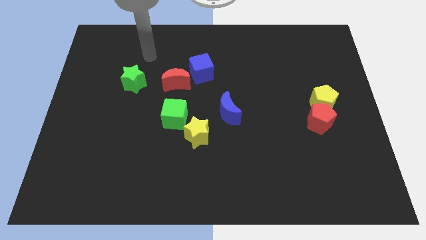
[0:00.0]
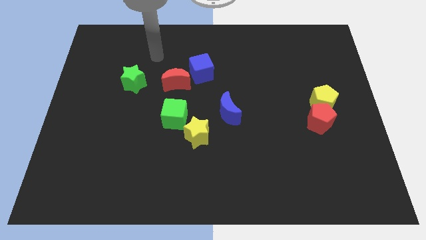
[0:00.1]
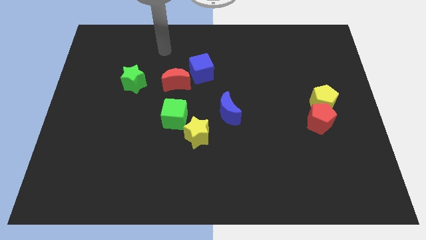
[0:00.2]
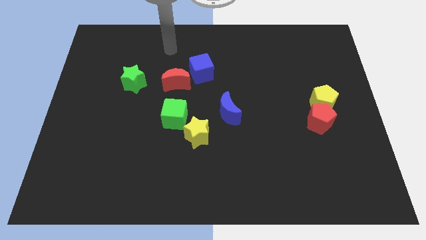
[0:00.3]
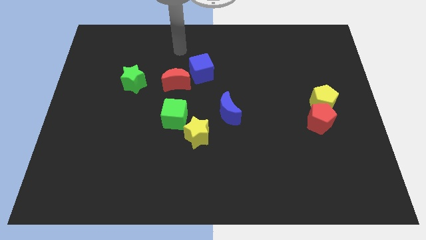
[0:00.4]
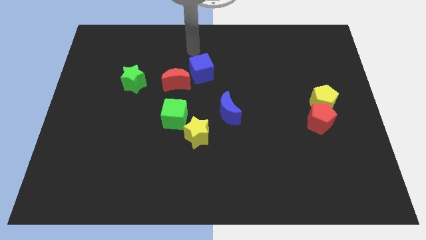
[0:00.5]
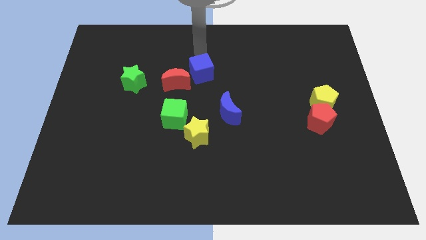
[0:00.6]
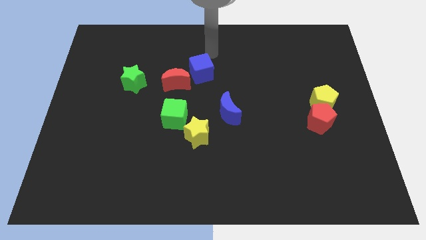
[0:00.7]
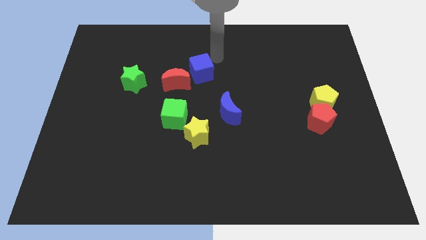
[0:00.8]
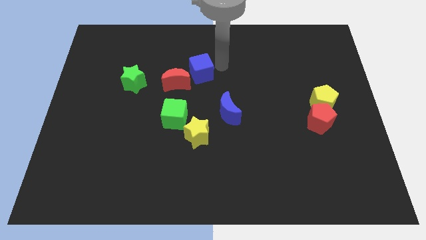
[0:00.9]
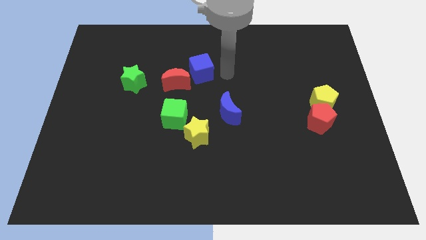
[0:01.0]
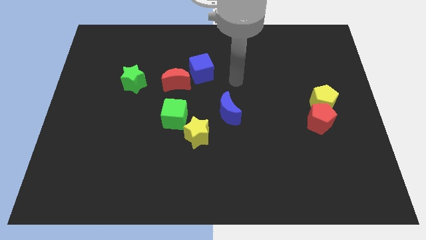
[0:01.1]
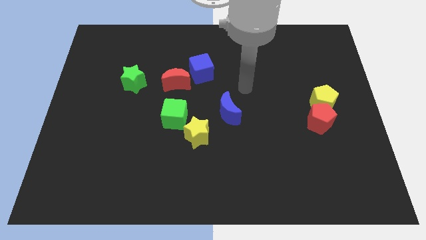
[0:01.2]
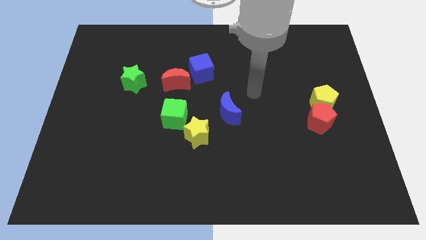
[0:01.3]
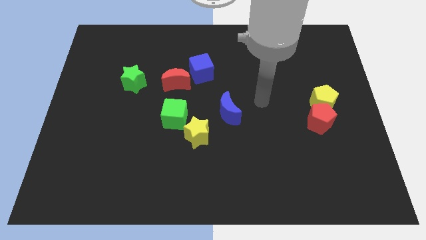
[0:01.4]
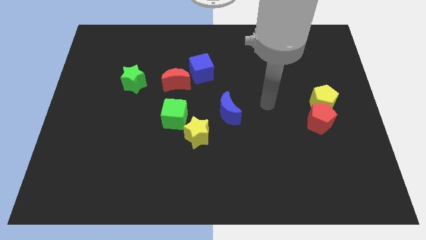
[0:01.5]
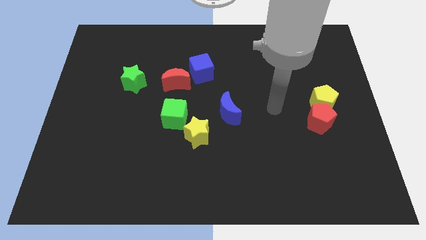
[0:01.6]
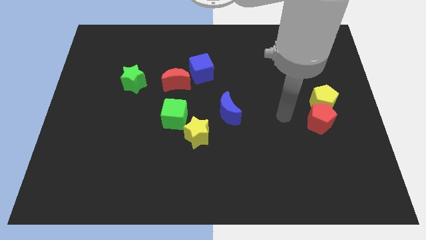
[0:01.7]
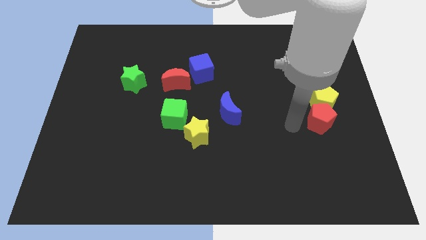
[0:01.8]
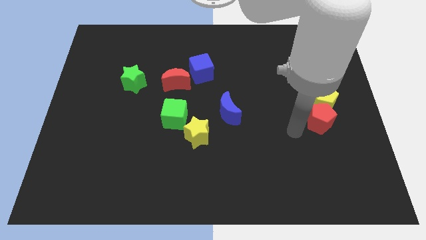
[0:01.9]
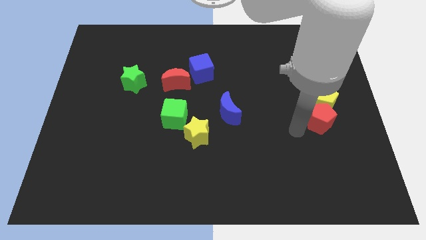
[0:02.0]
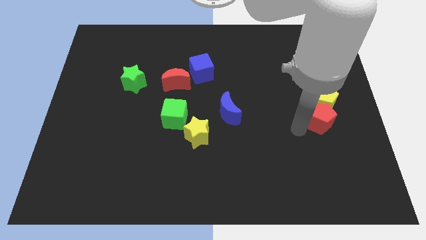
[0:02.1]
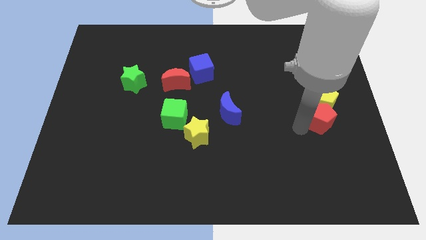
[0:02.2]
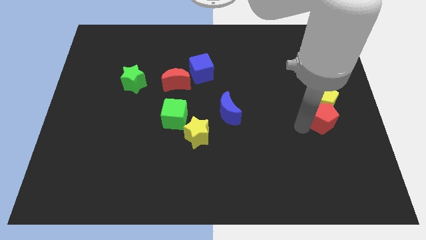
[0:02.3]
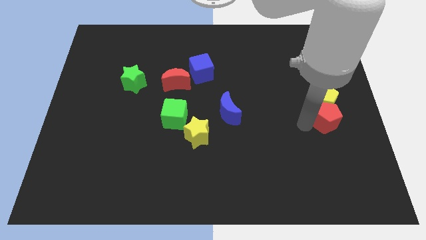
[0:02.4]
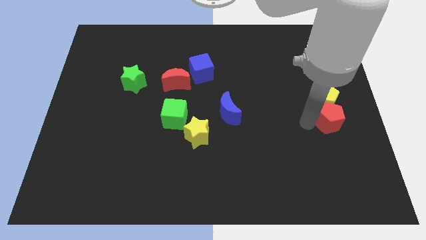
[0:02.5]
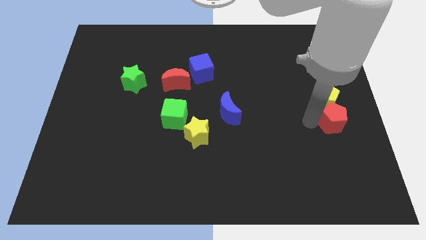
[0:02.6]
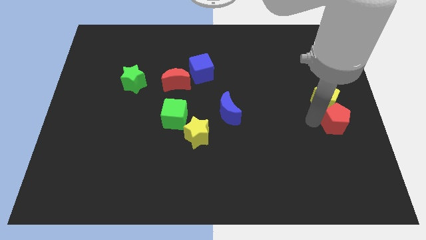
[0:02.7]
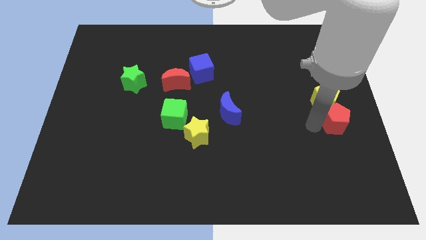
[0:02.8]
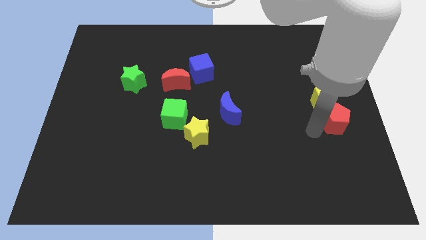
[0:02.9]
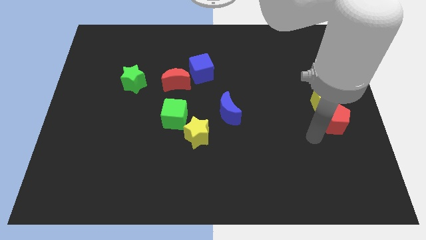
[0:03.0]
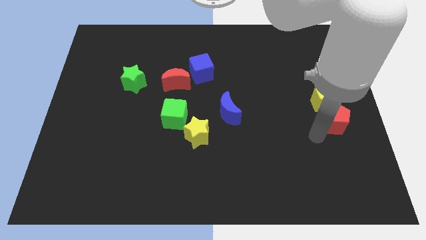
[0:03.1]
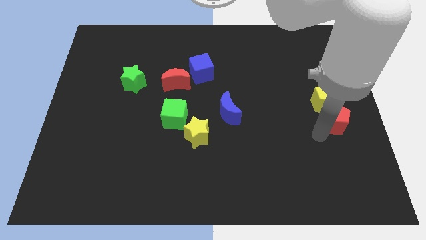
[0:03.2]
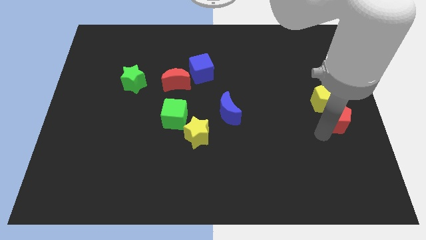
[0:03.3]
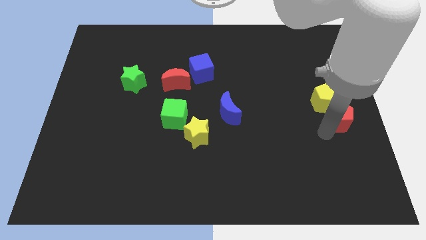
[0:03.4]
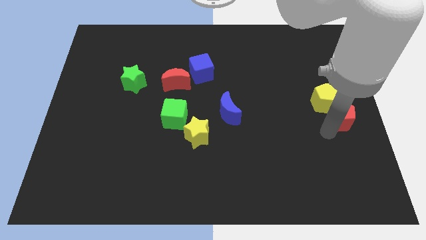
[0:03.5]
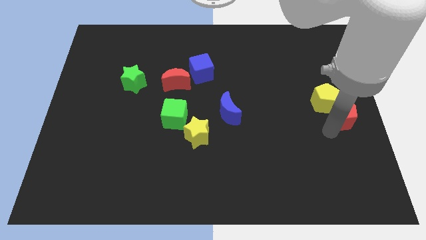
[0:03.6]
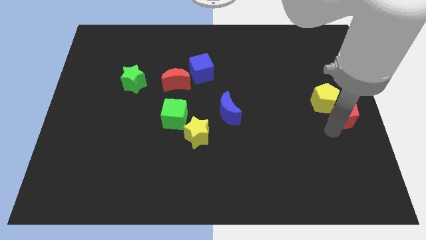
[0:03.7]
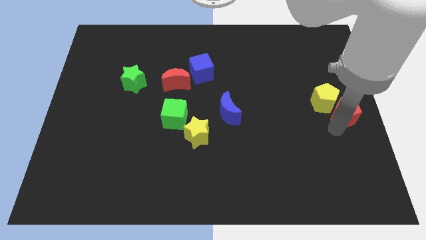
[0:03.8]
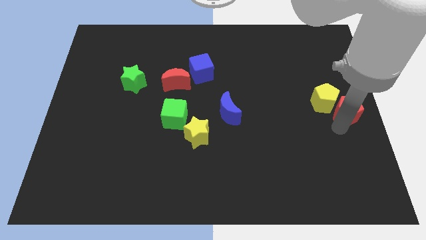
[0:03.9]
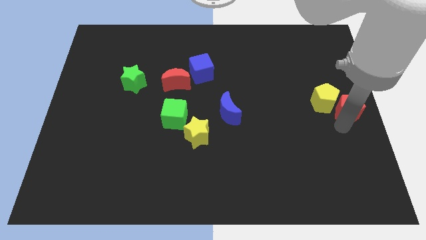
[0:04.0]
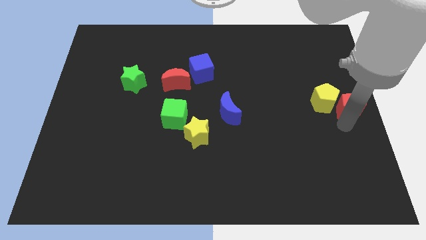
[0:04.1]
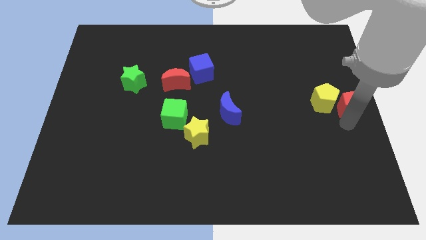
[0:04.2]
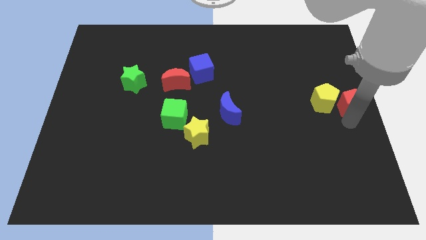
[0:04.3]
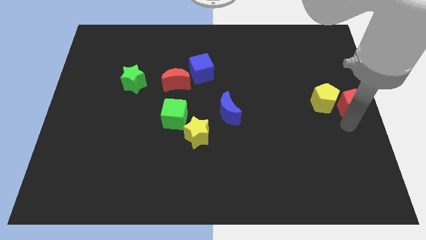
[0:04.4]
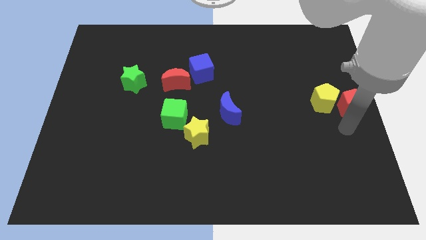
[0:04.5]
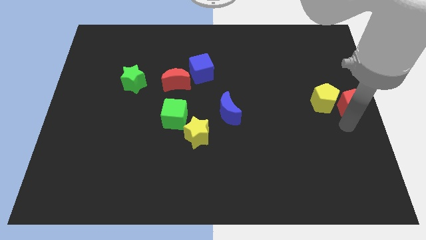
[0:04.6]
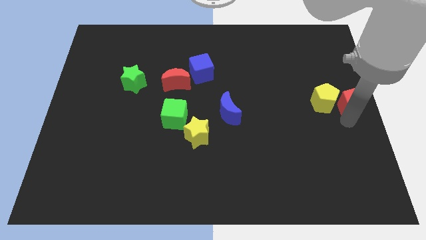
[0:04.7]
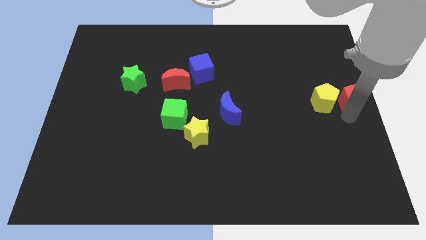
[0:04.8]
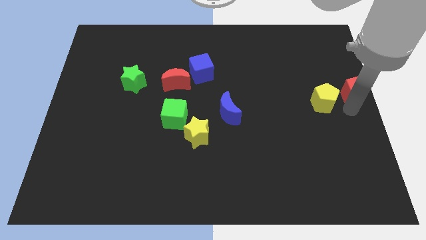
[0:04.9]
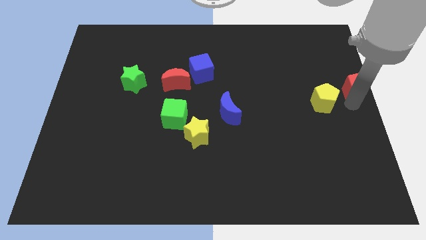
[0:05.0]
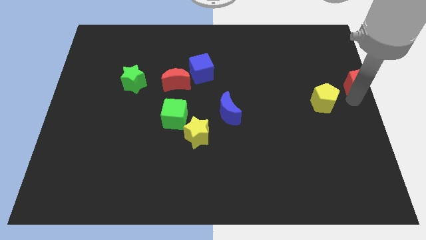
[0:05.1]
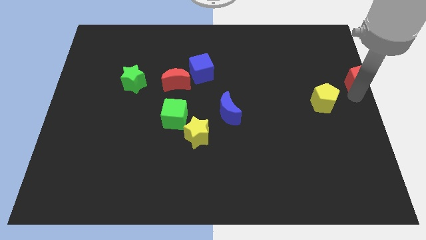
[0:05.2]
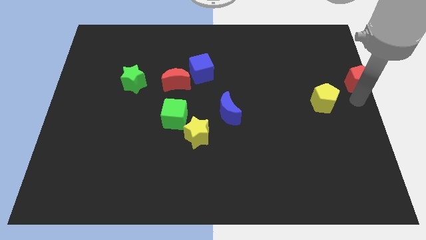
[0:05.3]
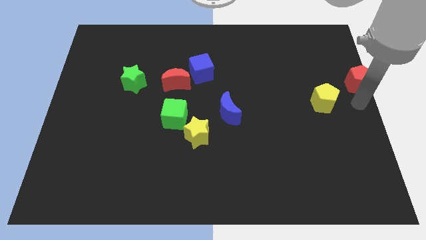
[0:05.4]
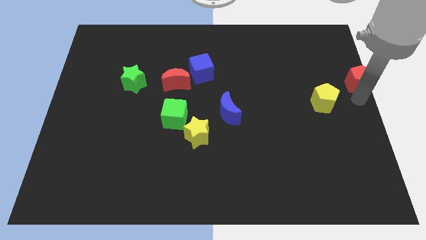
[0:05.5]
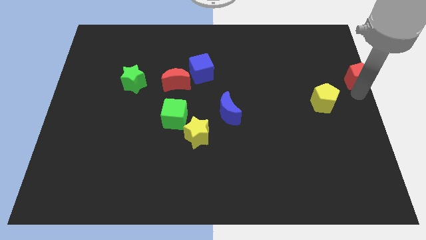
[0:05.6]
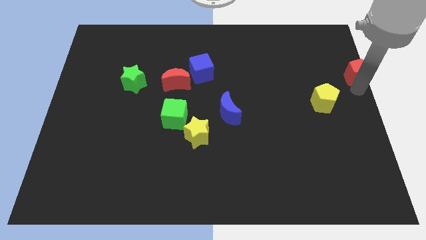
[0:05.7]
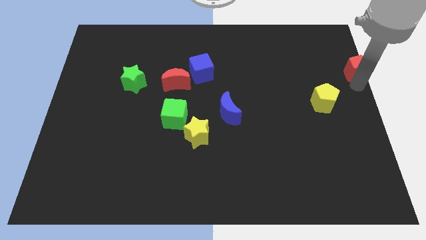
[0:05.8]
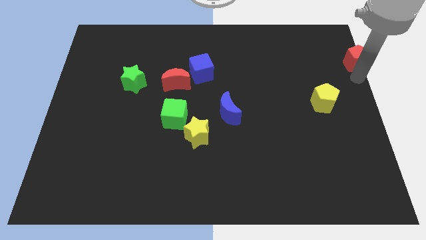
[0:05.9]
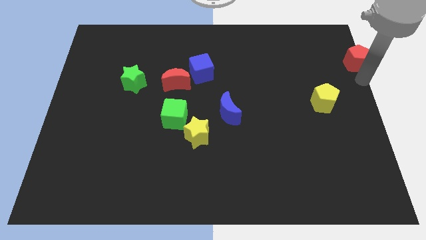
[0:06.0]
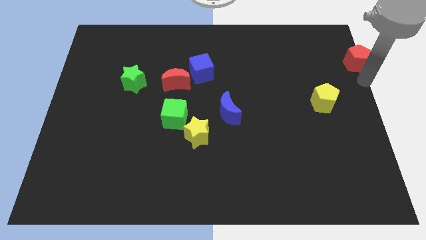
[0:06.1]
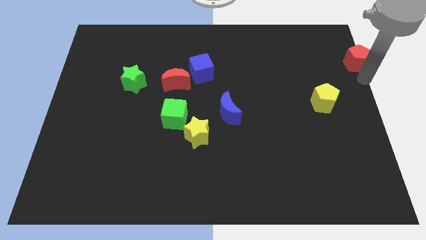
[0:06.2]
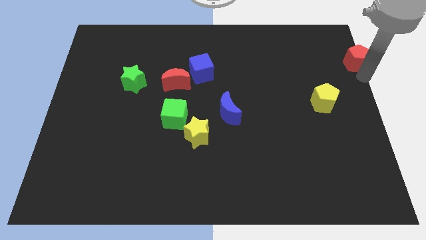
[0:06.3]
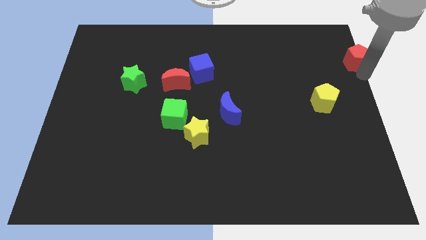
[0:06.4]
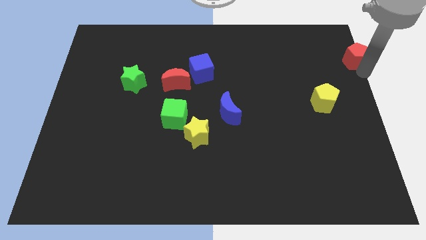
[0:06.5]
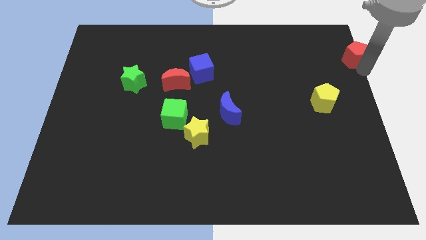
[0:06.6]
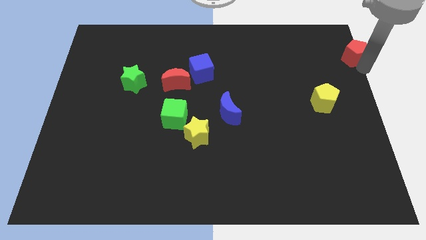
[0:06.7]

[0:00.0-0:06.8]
push the red pentagon to the top right corner

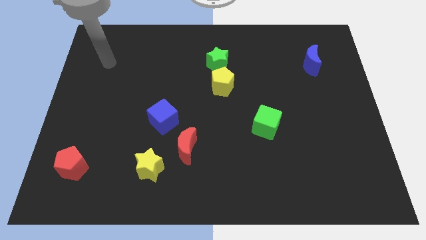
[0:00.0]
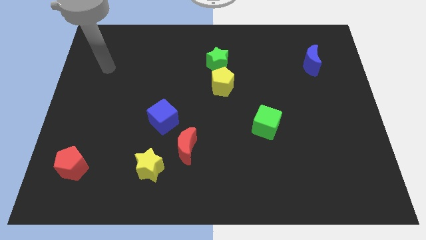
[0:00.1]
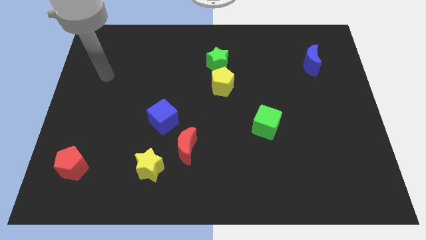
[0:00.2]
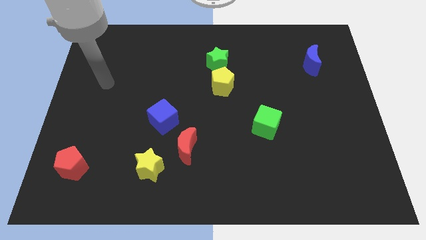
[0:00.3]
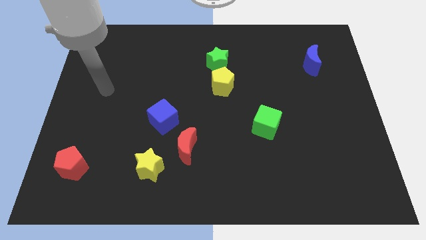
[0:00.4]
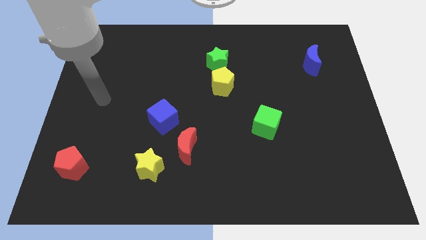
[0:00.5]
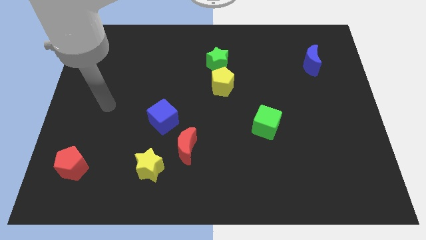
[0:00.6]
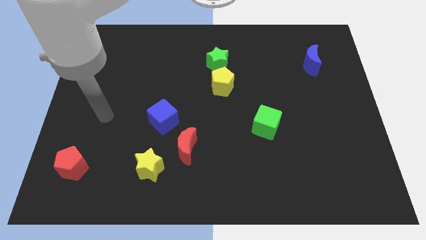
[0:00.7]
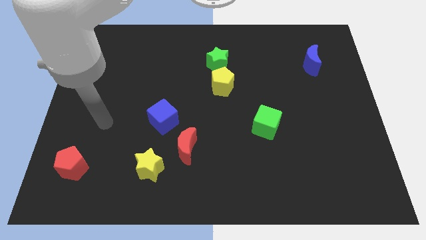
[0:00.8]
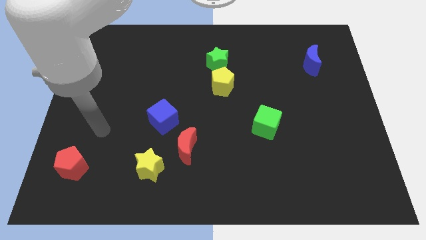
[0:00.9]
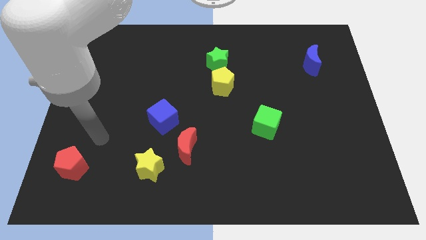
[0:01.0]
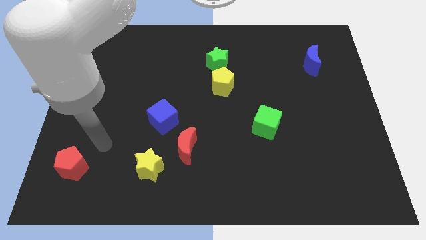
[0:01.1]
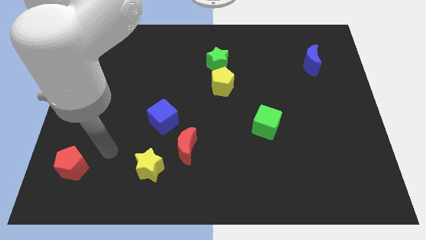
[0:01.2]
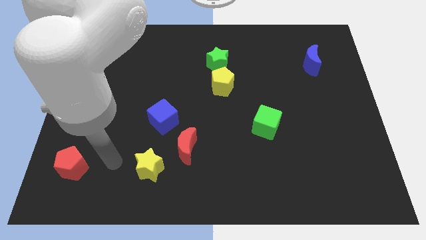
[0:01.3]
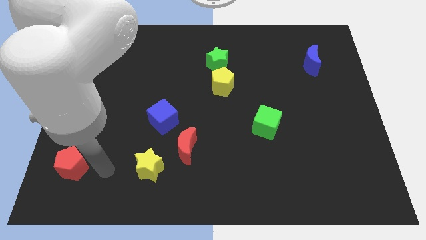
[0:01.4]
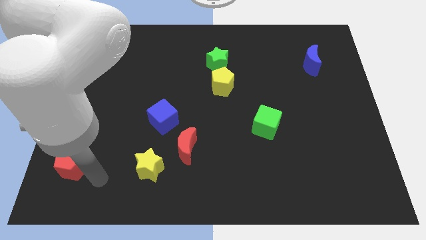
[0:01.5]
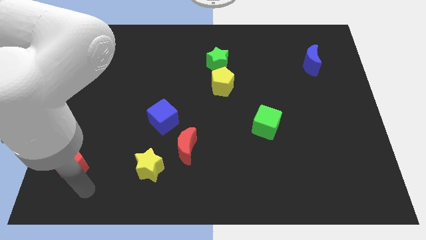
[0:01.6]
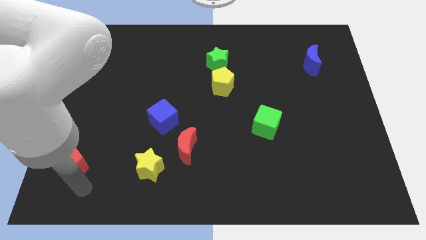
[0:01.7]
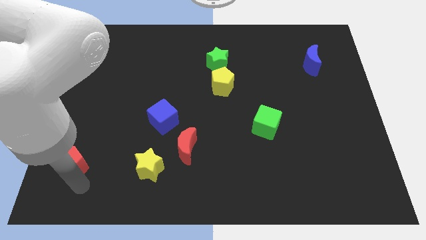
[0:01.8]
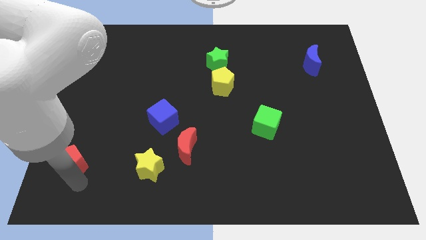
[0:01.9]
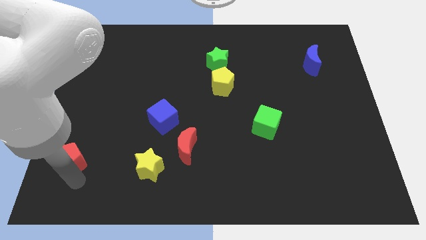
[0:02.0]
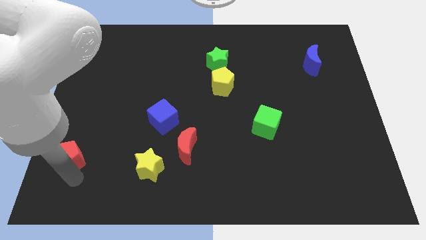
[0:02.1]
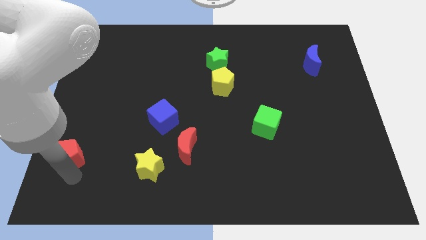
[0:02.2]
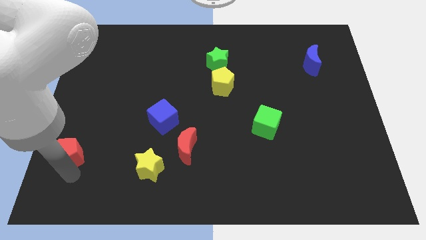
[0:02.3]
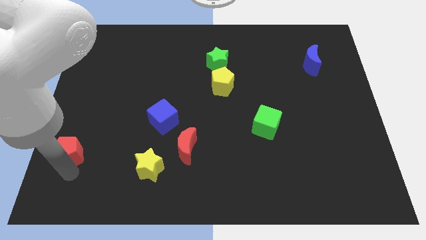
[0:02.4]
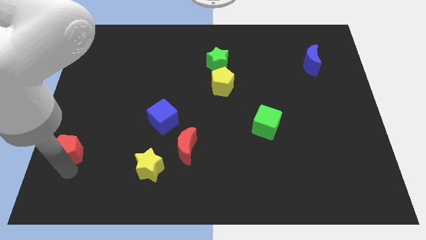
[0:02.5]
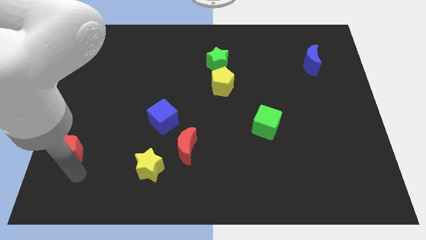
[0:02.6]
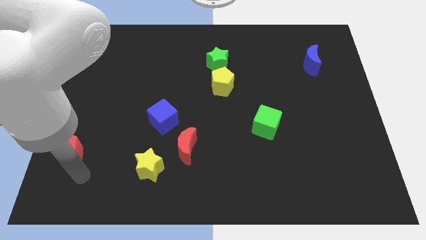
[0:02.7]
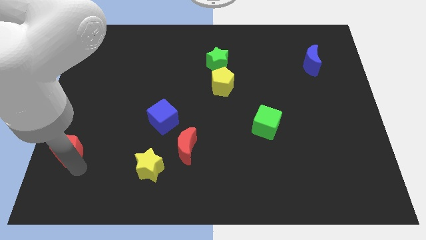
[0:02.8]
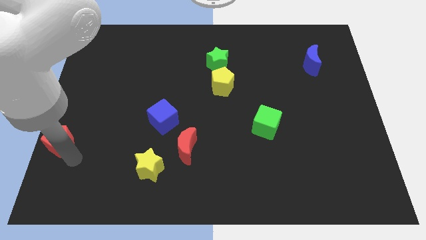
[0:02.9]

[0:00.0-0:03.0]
push the red pentagon to the center left
